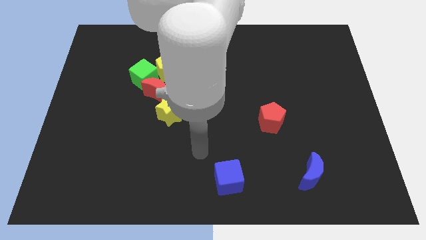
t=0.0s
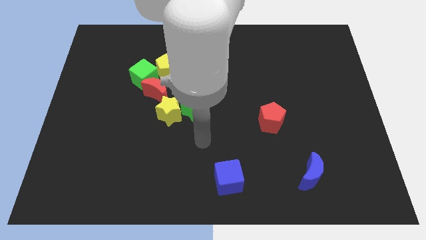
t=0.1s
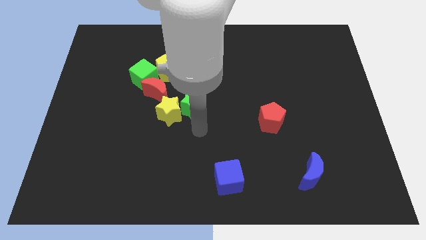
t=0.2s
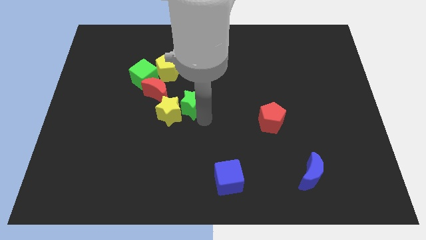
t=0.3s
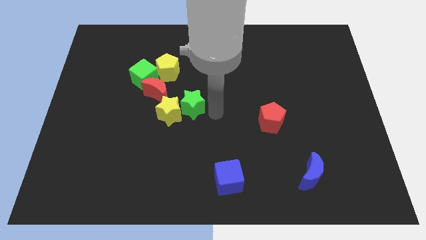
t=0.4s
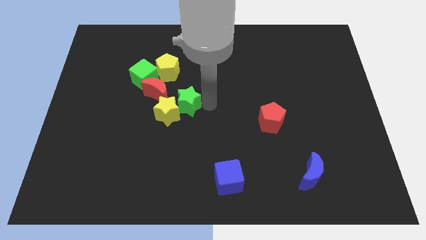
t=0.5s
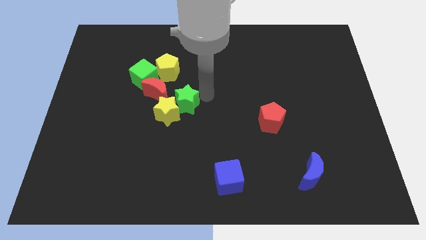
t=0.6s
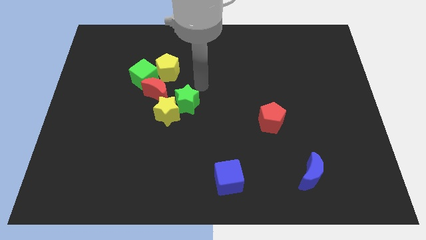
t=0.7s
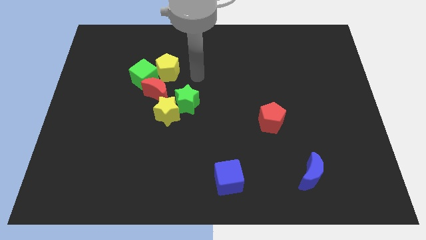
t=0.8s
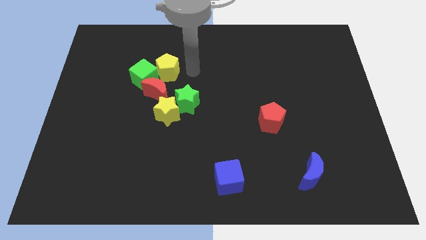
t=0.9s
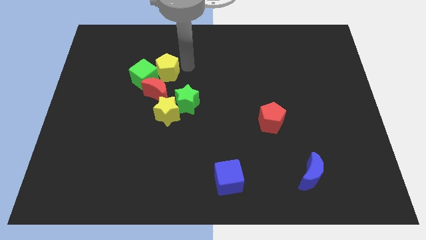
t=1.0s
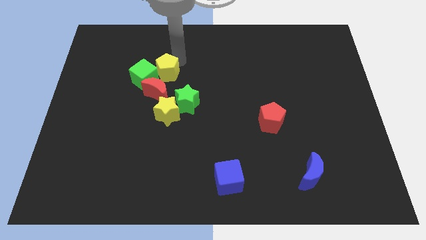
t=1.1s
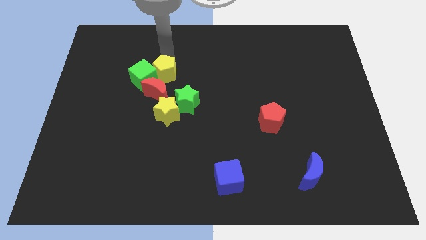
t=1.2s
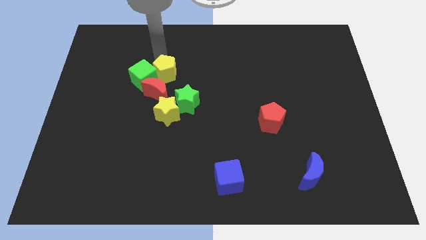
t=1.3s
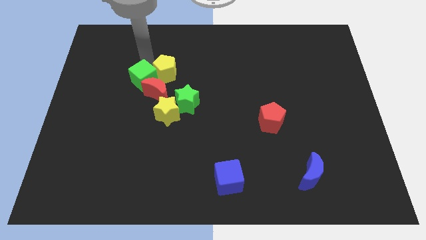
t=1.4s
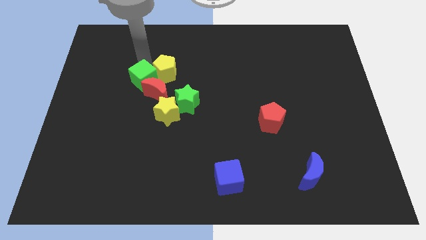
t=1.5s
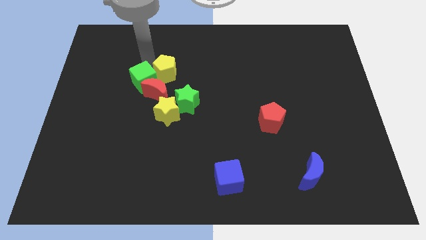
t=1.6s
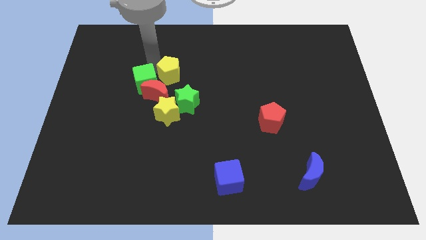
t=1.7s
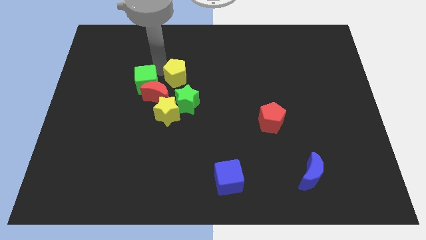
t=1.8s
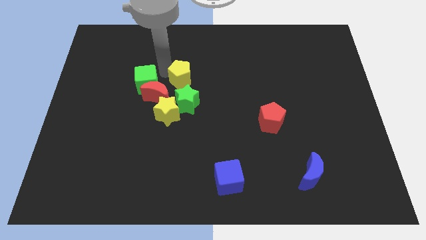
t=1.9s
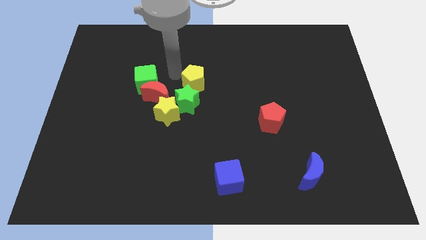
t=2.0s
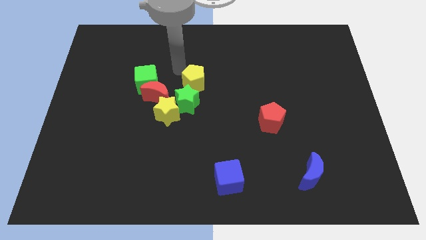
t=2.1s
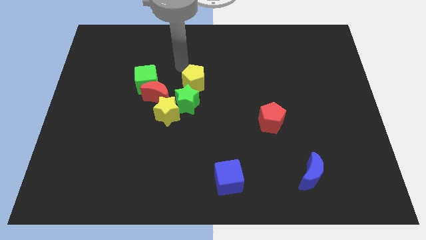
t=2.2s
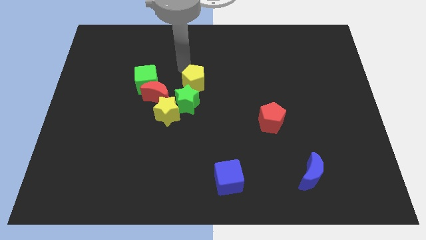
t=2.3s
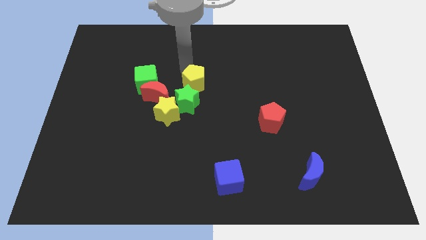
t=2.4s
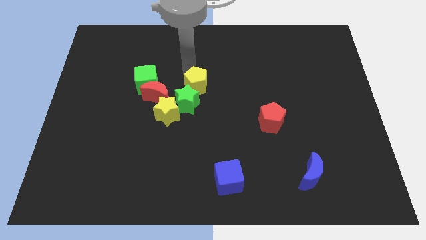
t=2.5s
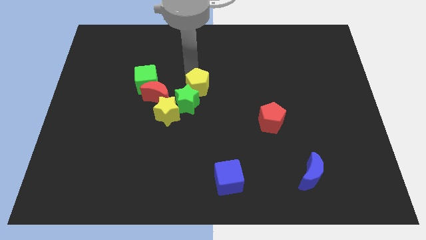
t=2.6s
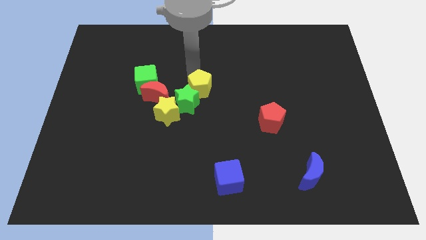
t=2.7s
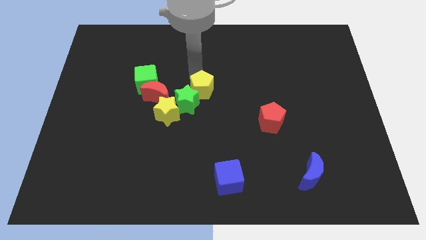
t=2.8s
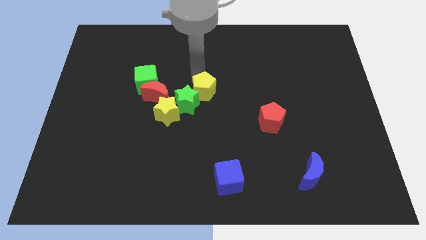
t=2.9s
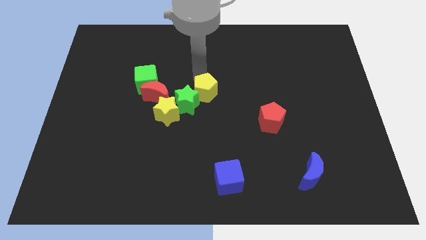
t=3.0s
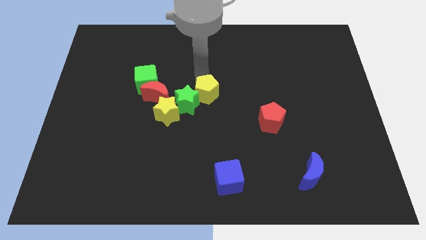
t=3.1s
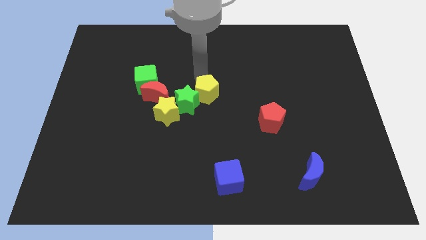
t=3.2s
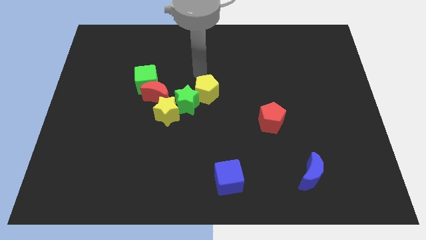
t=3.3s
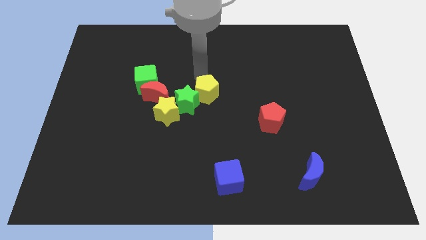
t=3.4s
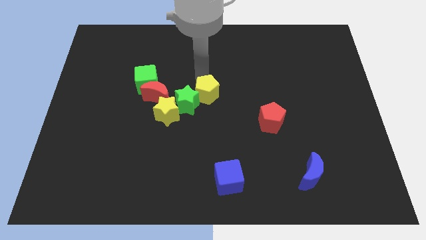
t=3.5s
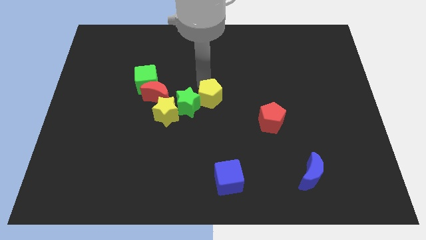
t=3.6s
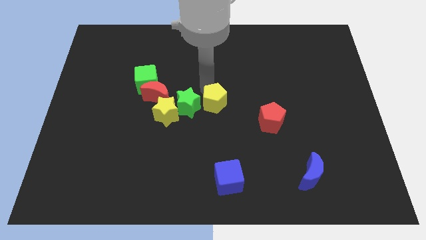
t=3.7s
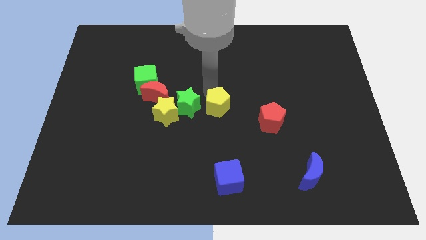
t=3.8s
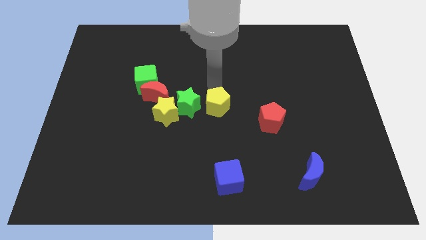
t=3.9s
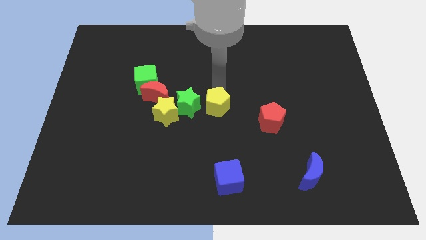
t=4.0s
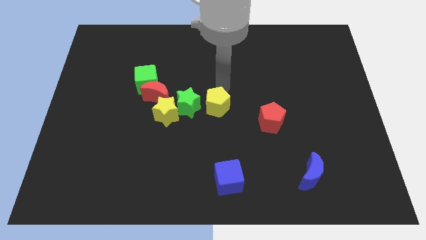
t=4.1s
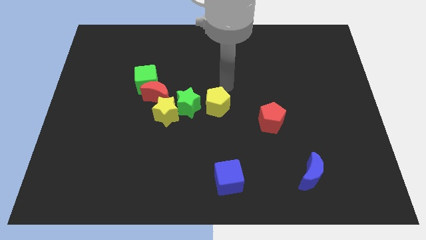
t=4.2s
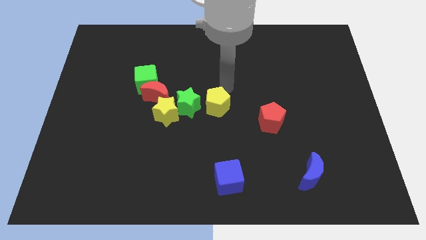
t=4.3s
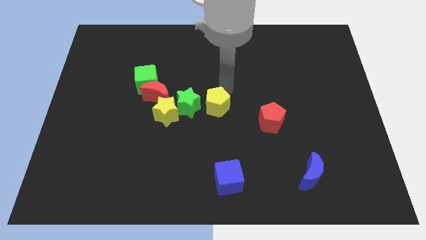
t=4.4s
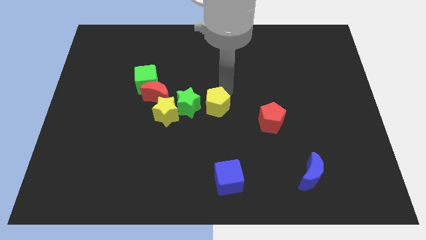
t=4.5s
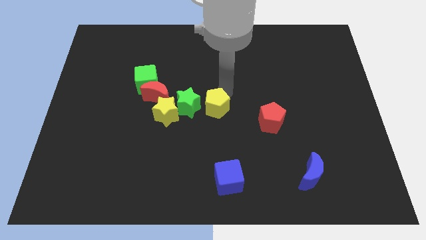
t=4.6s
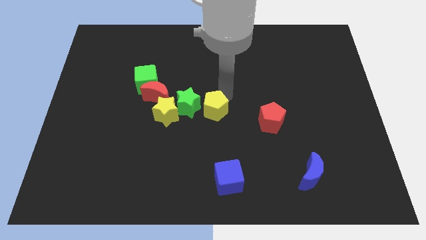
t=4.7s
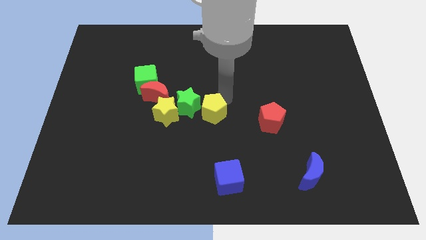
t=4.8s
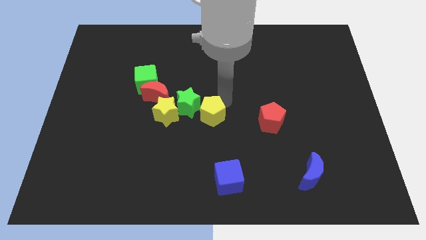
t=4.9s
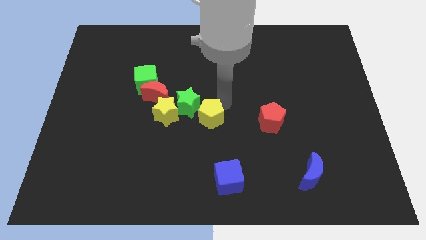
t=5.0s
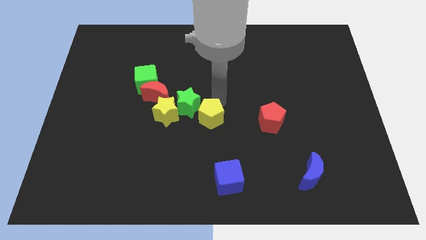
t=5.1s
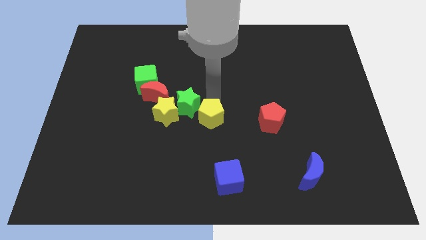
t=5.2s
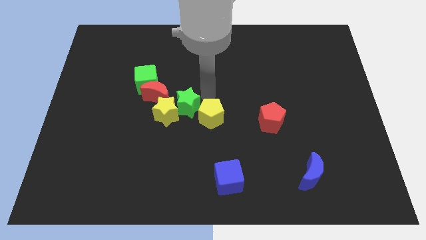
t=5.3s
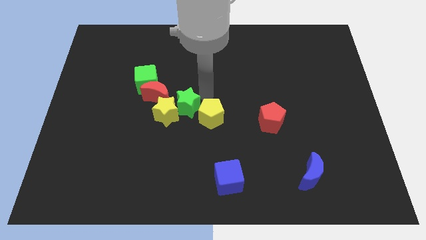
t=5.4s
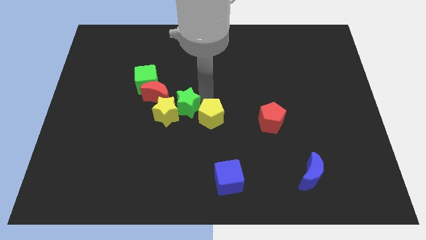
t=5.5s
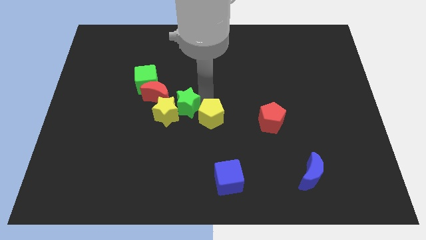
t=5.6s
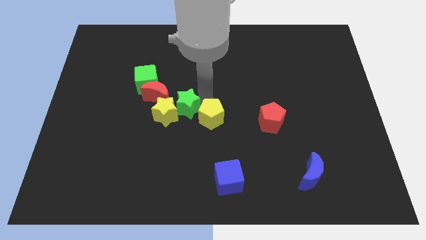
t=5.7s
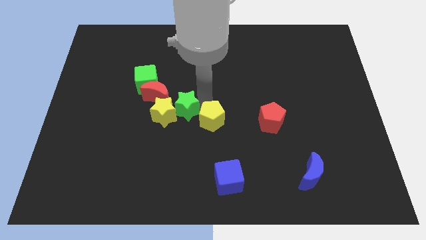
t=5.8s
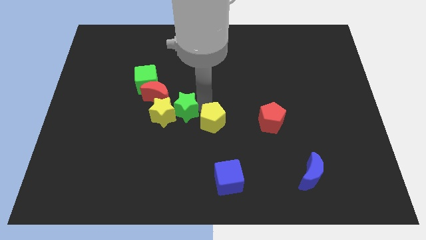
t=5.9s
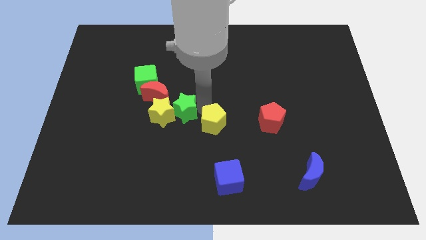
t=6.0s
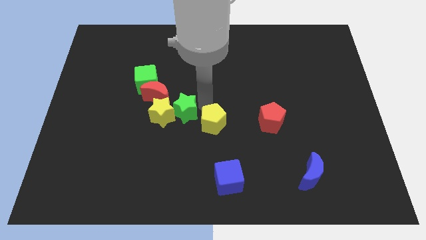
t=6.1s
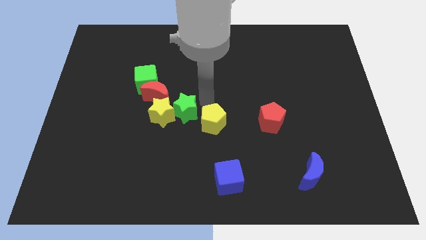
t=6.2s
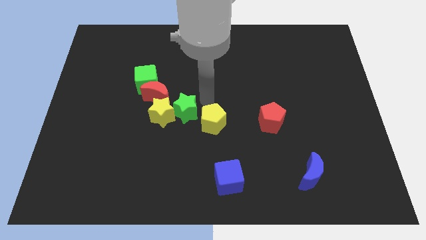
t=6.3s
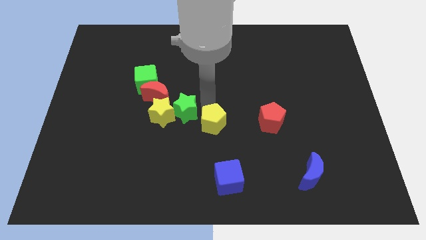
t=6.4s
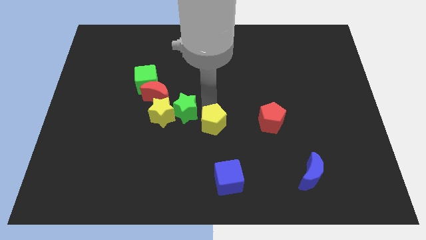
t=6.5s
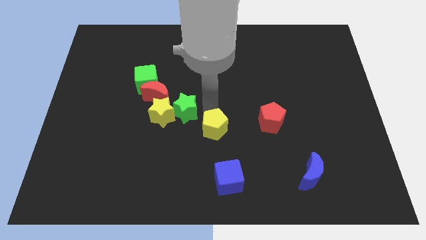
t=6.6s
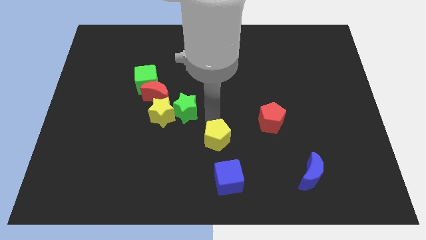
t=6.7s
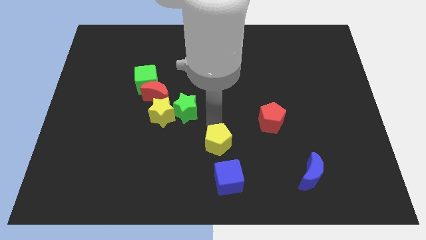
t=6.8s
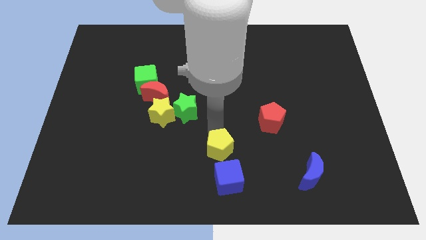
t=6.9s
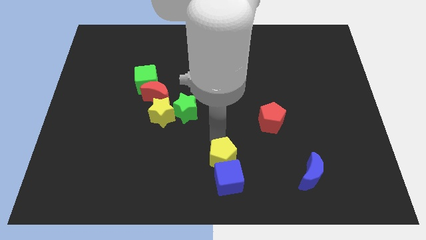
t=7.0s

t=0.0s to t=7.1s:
move the yellow pentagon close to the blue cube
